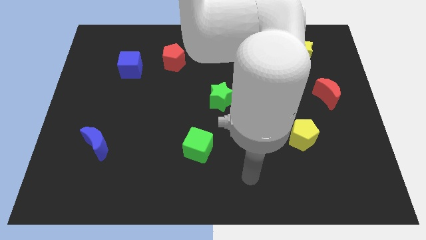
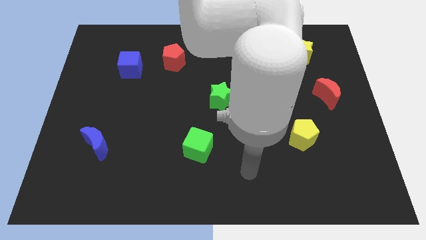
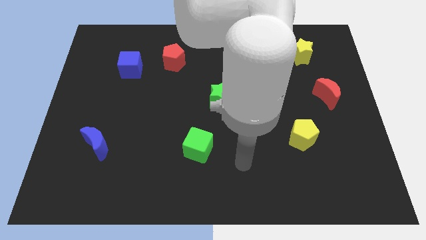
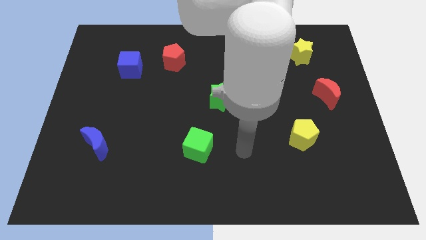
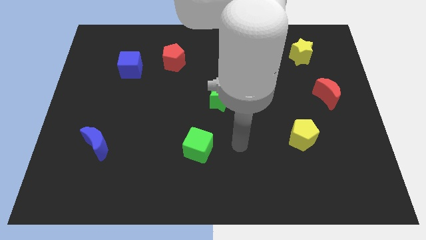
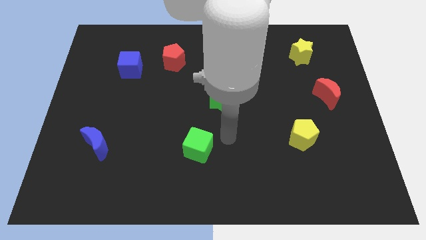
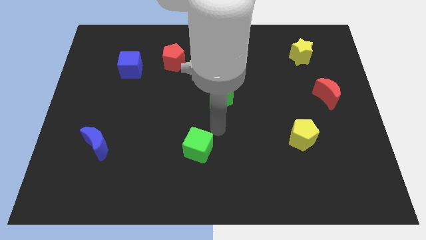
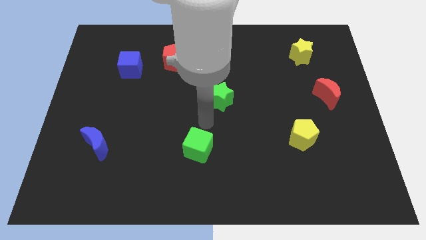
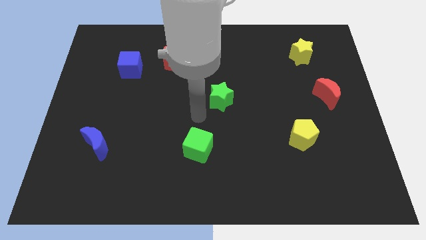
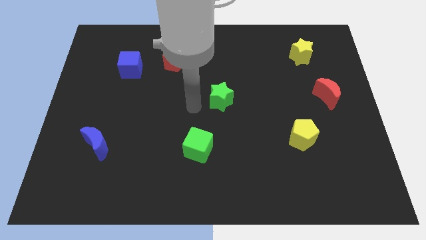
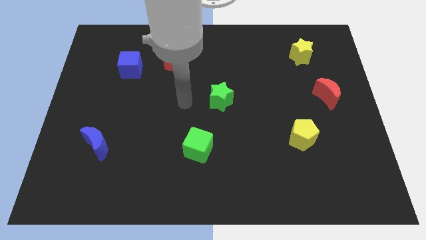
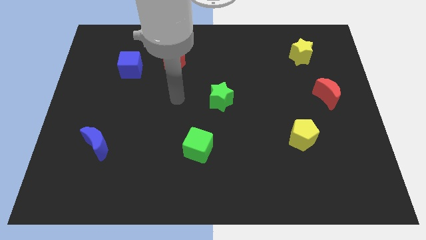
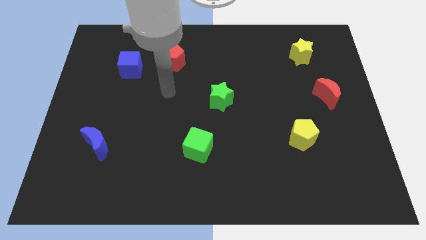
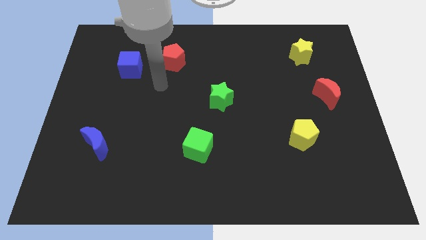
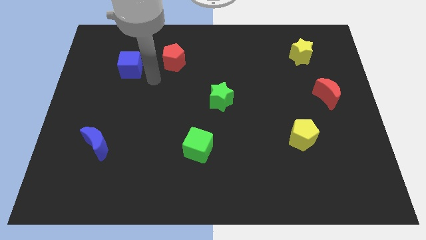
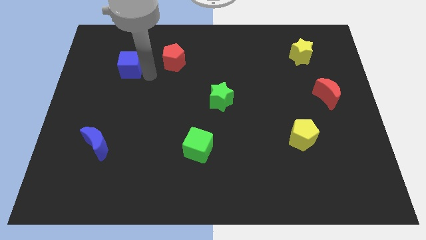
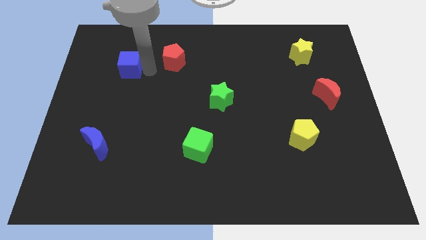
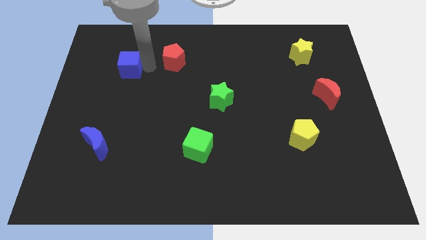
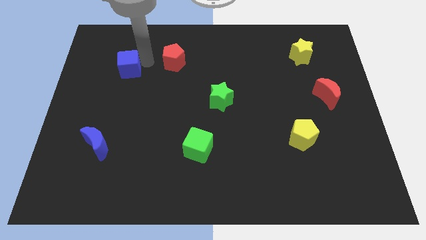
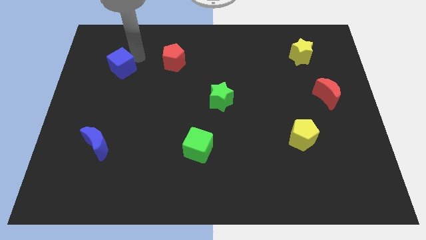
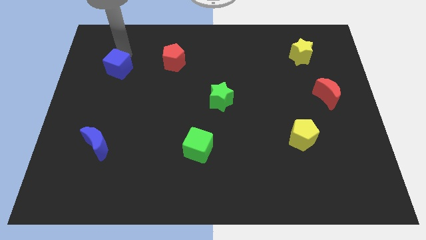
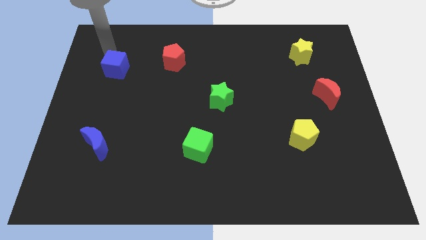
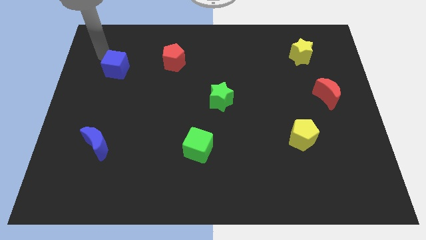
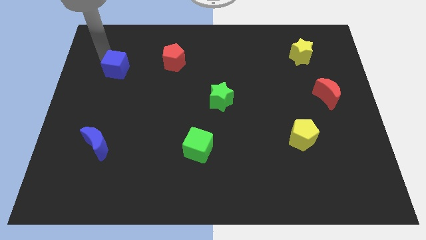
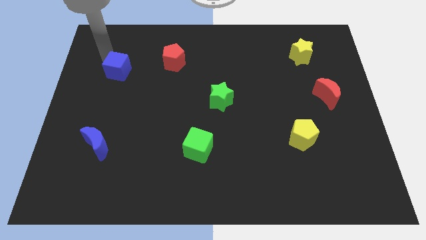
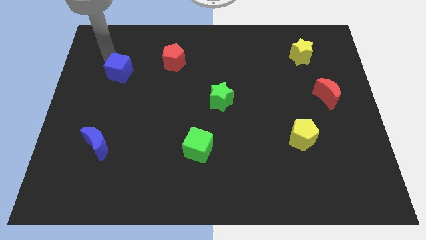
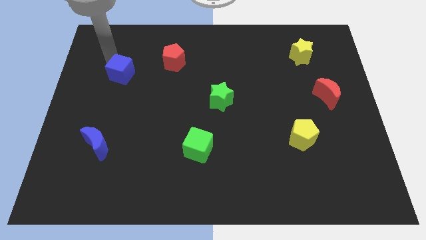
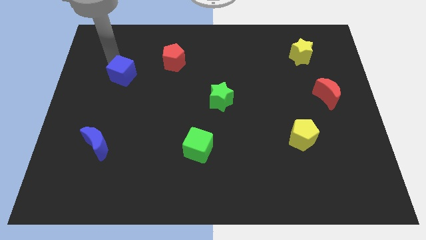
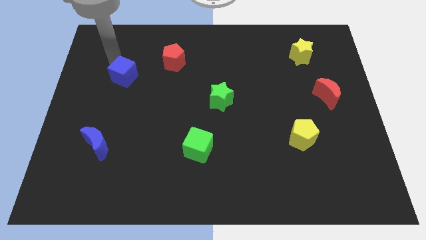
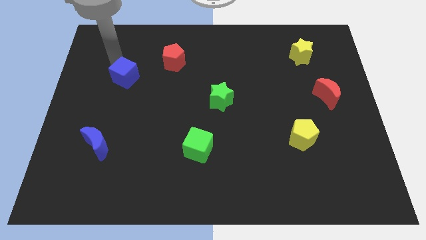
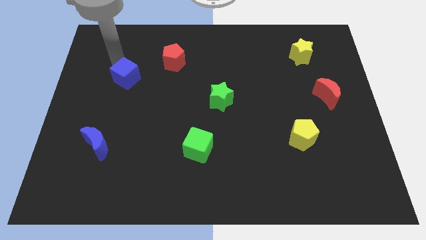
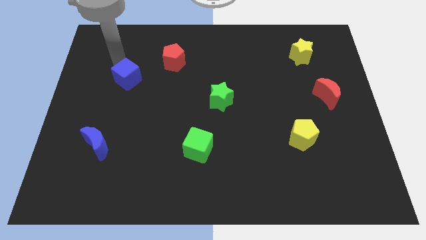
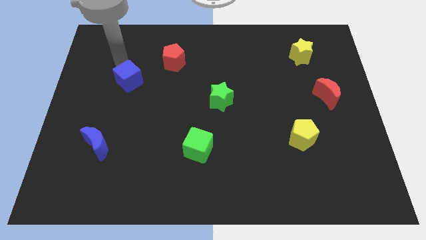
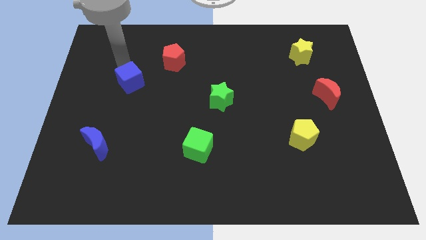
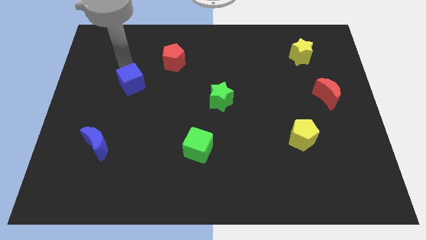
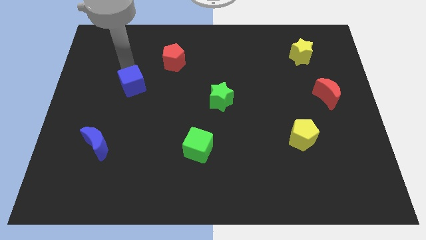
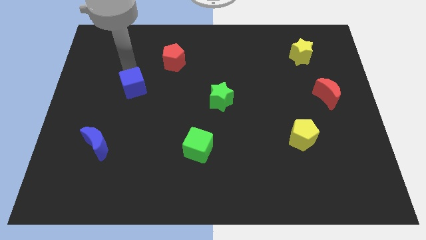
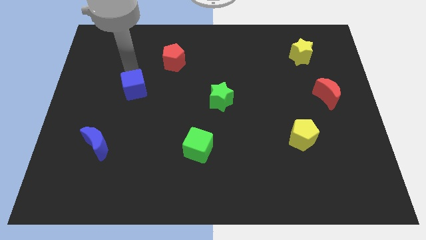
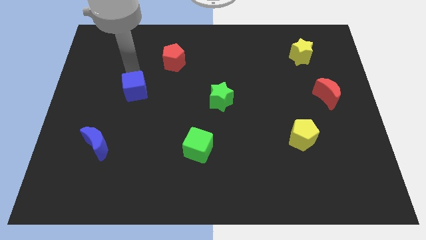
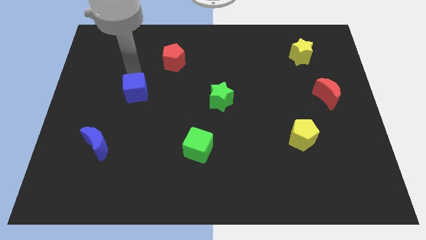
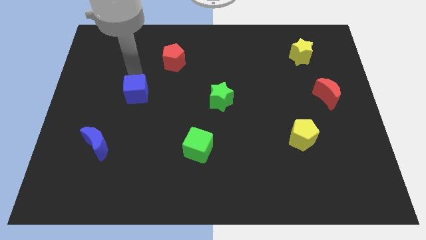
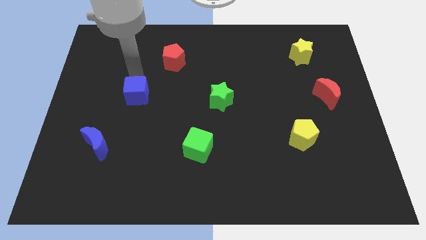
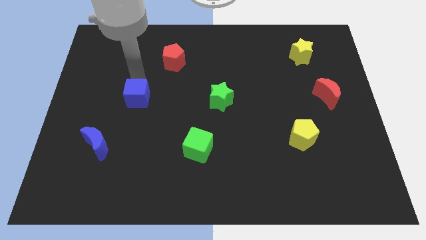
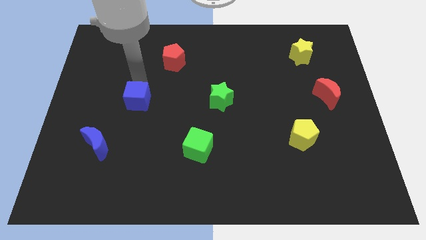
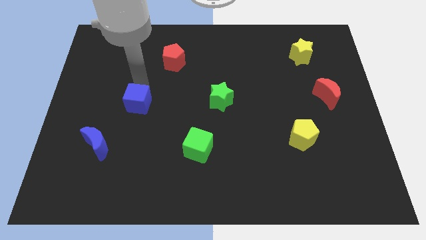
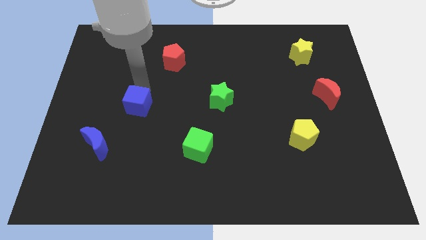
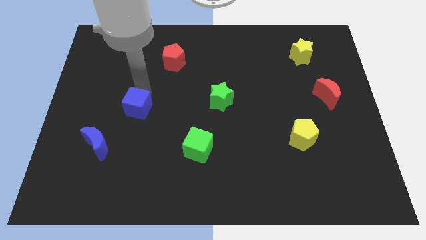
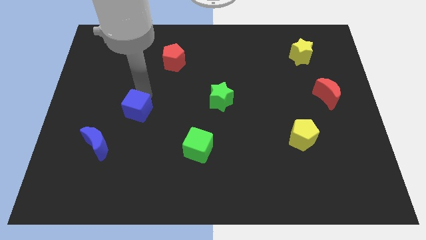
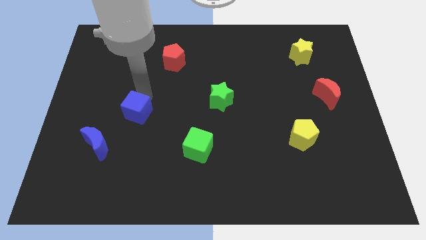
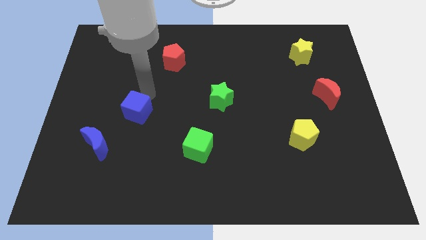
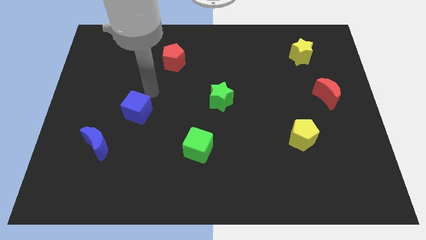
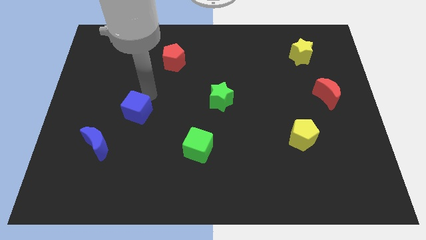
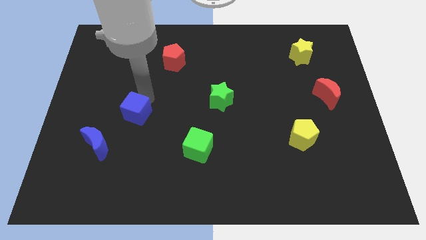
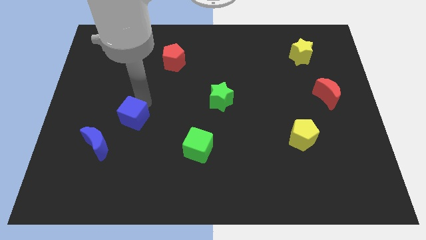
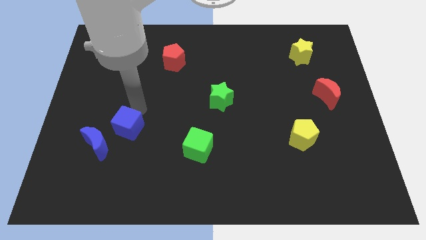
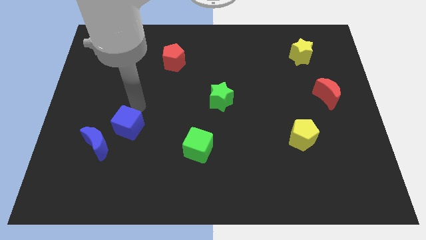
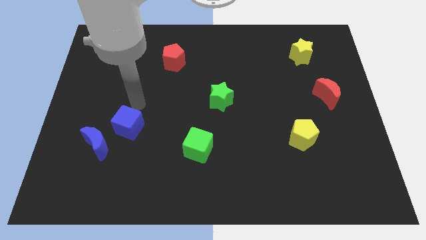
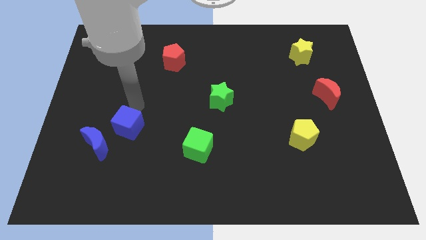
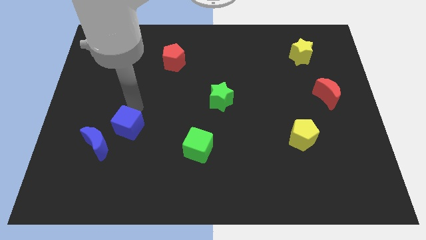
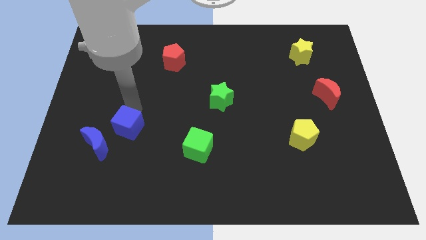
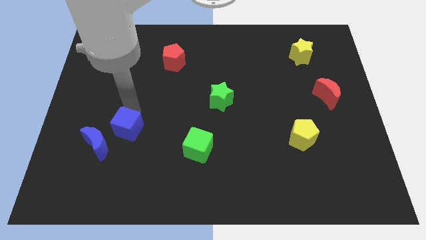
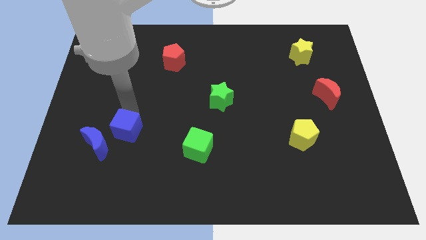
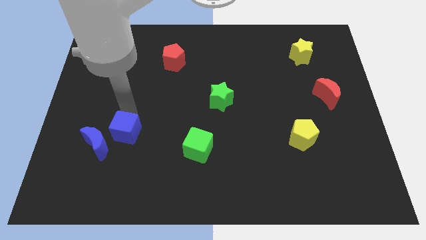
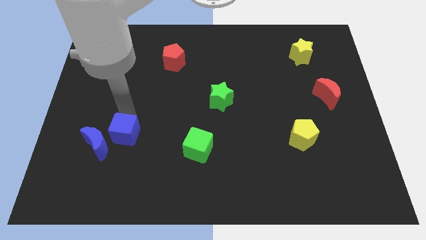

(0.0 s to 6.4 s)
slide the blue cube downwards

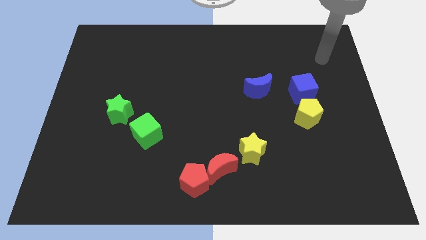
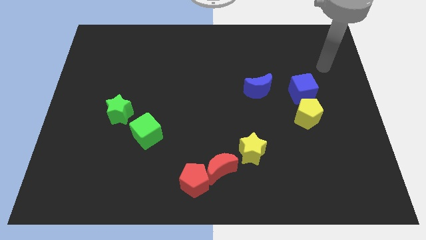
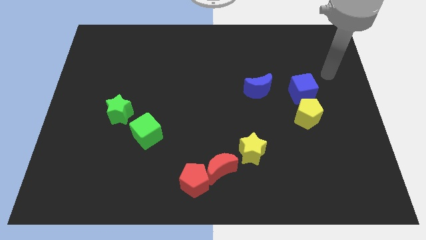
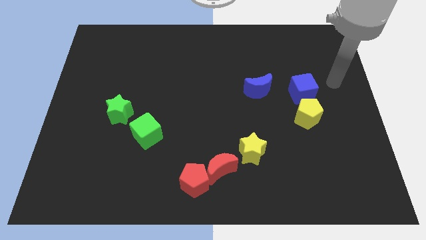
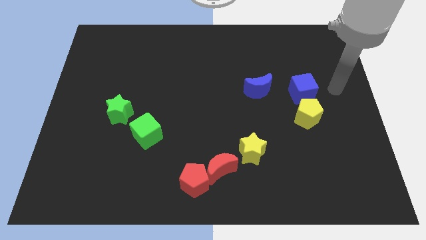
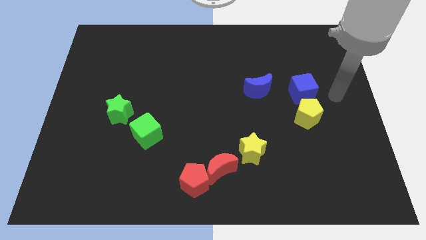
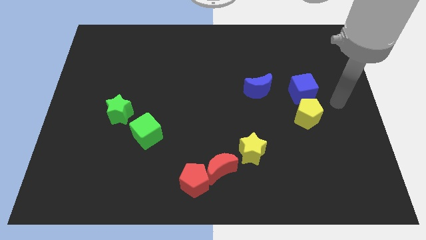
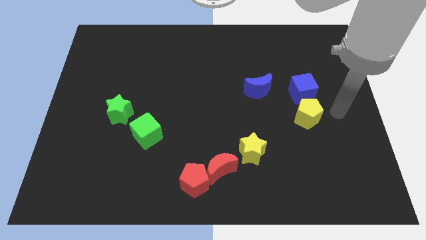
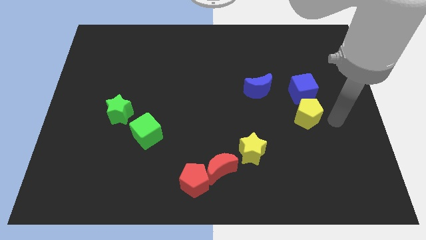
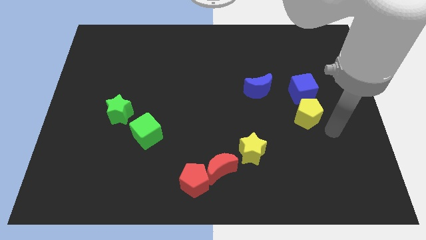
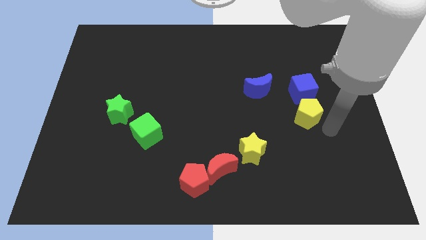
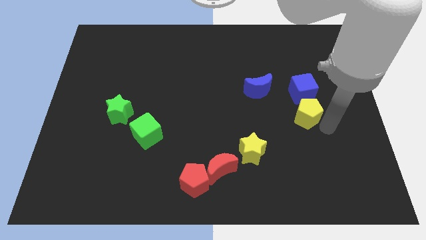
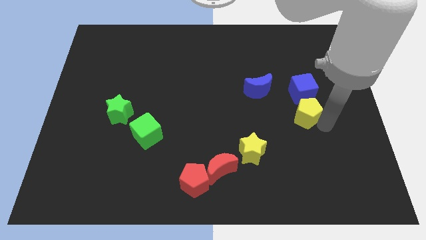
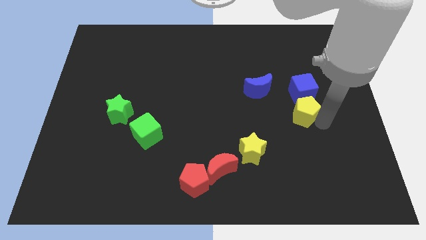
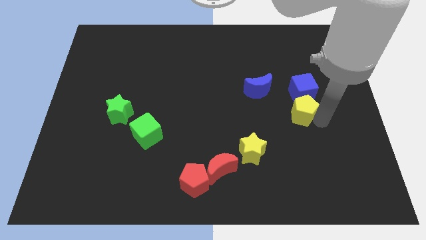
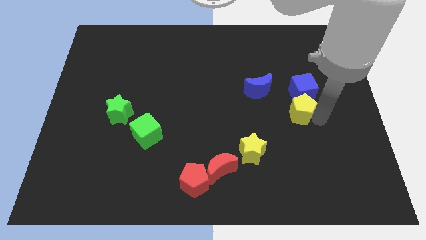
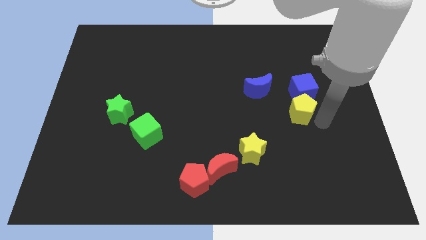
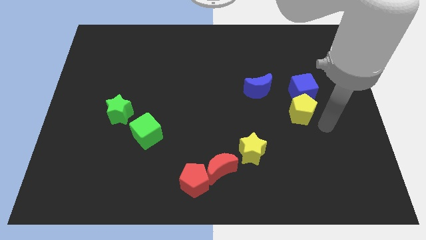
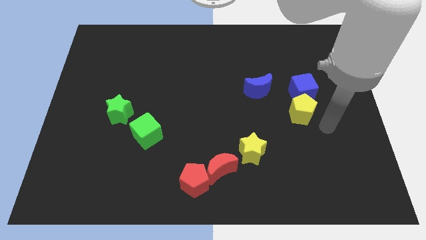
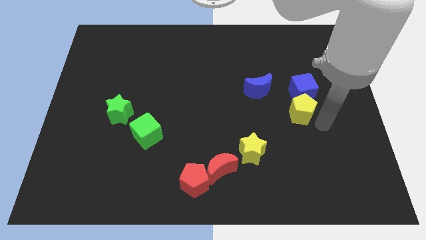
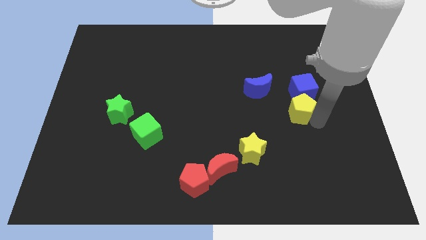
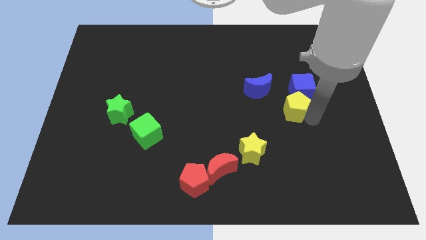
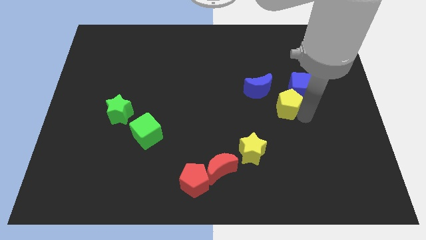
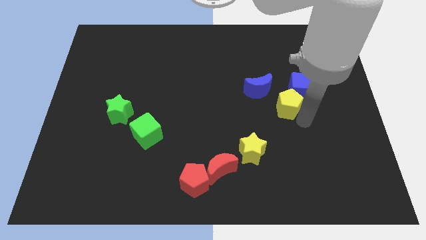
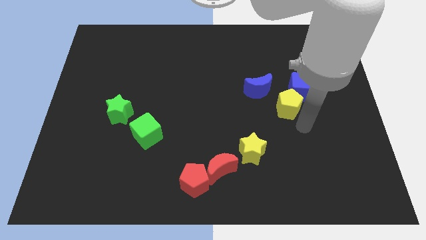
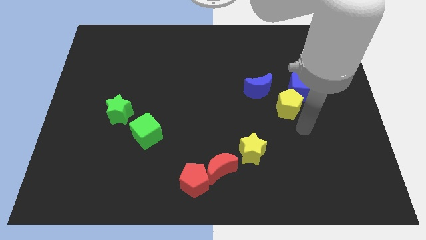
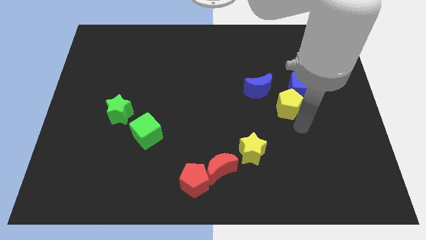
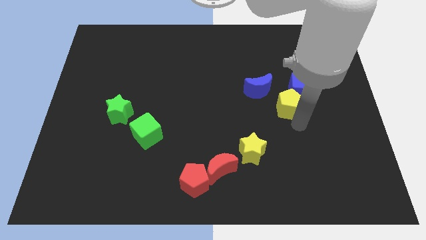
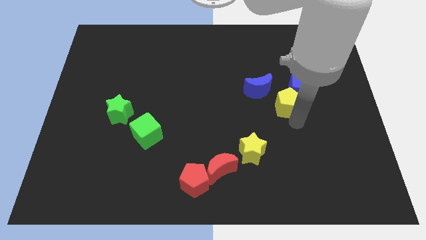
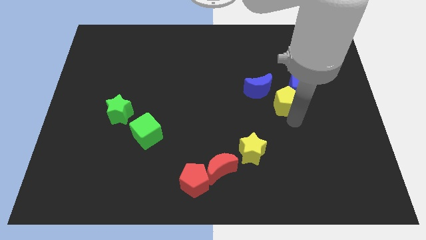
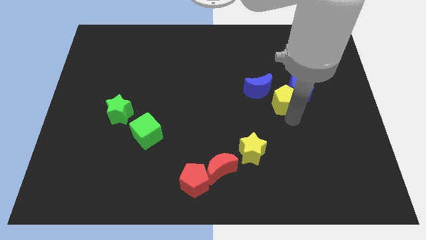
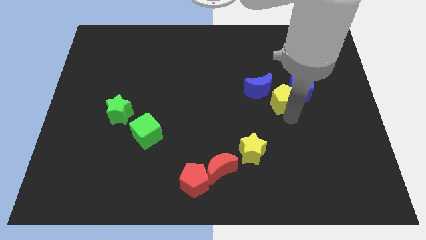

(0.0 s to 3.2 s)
slightly push the yellow pentagon up and left diagonally
